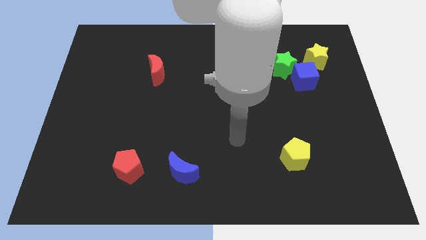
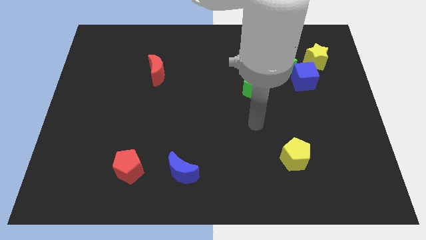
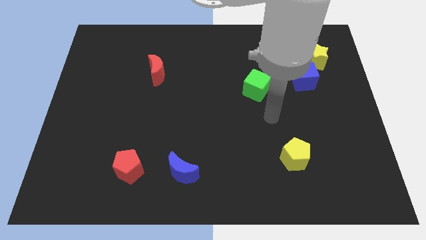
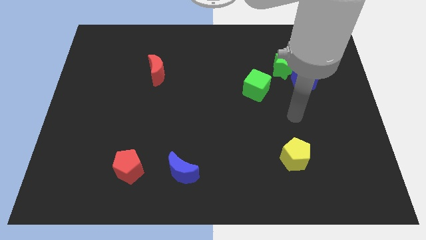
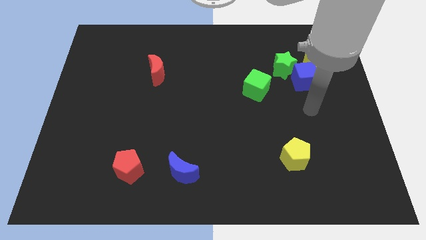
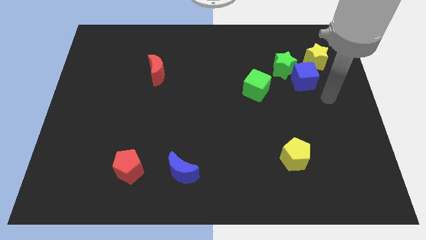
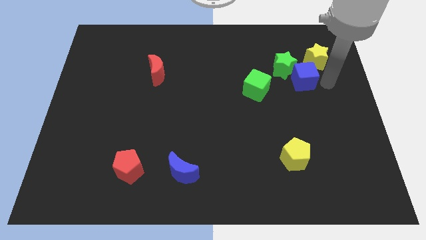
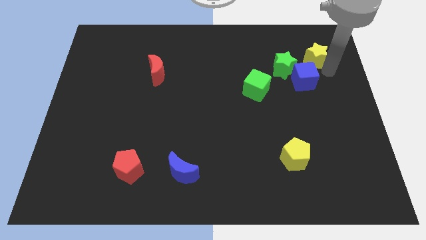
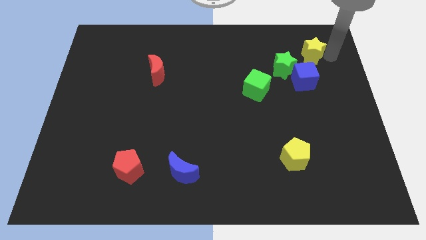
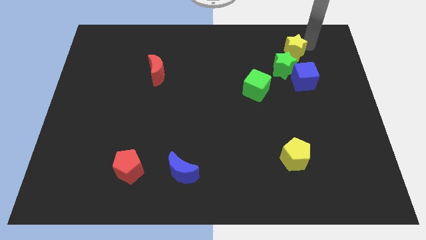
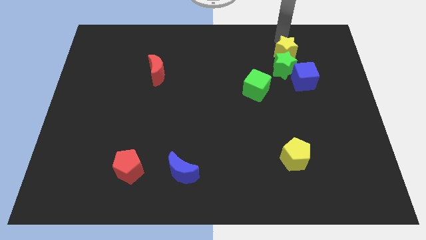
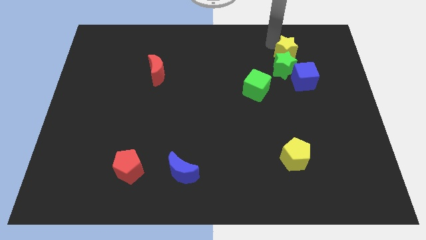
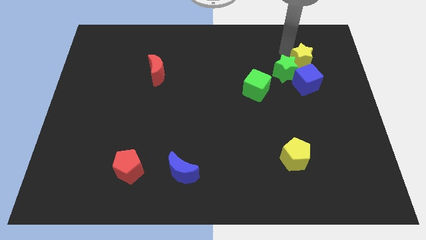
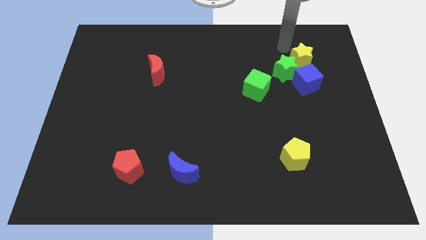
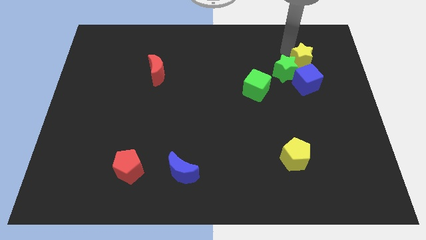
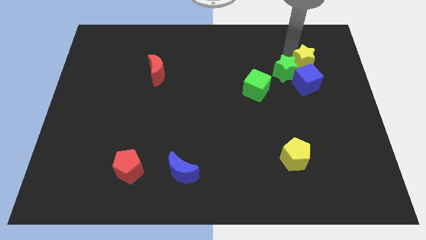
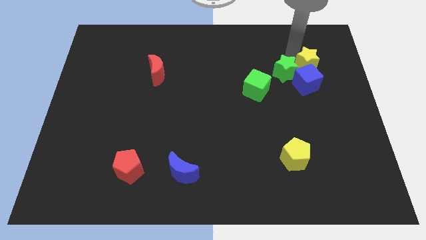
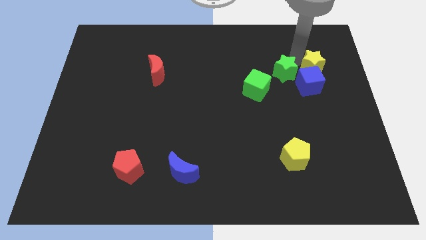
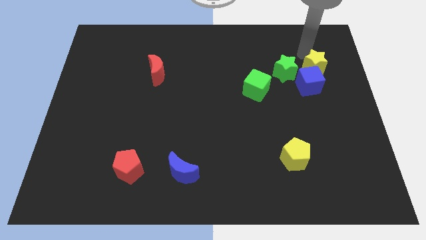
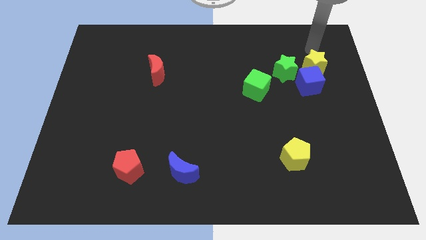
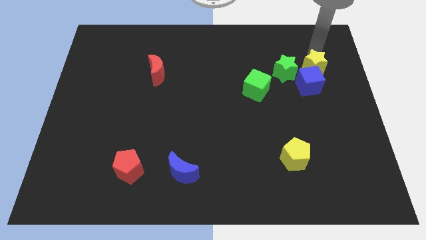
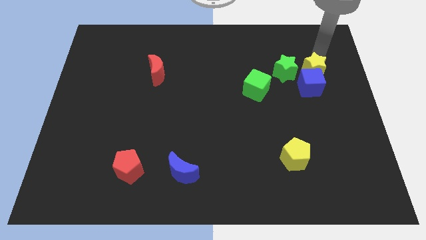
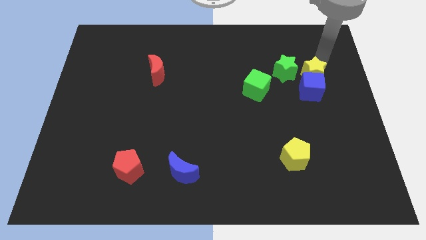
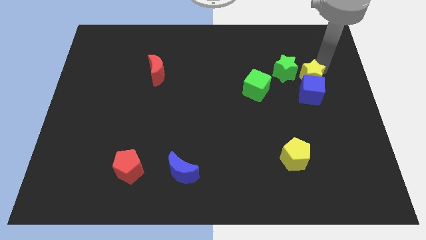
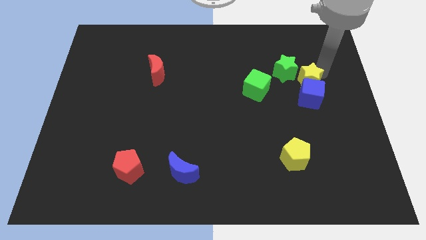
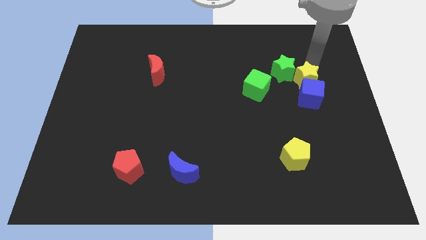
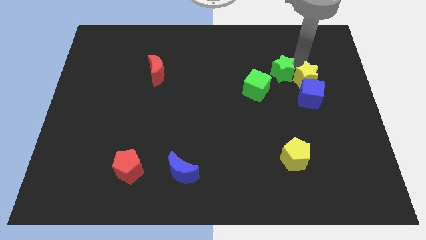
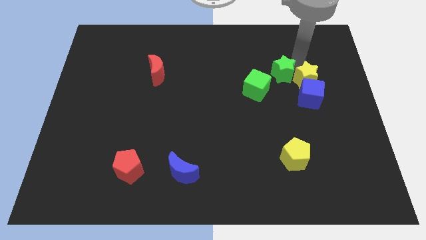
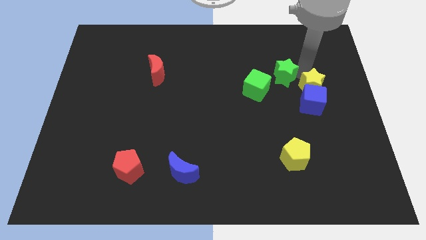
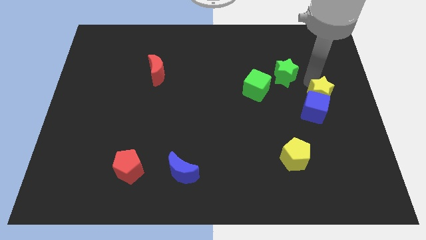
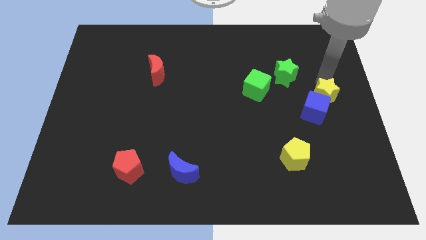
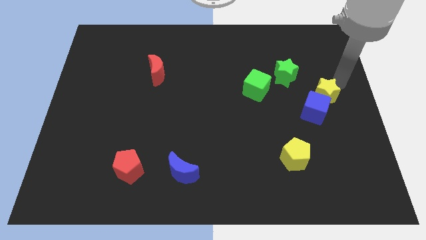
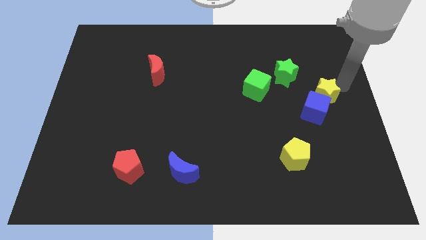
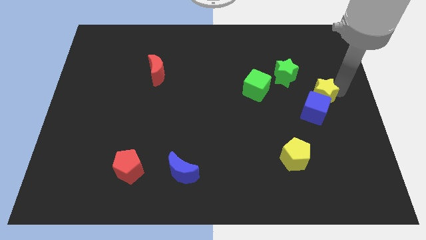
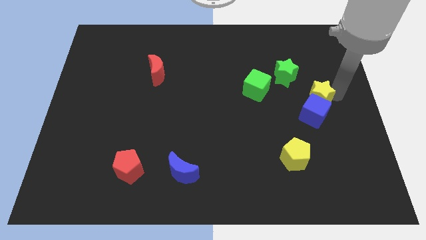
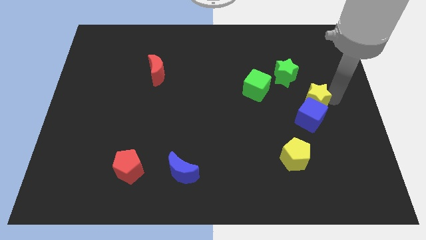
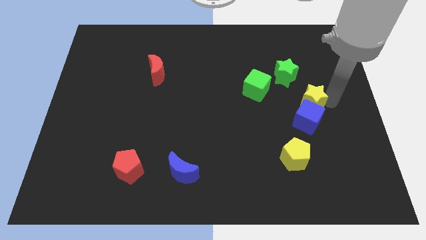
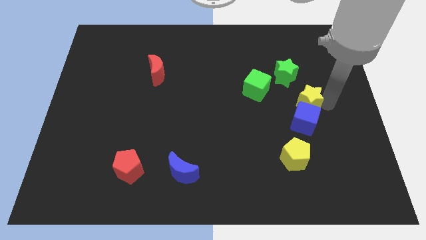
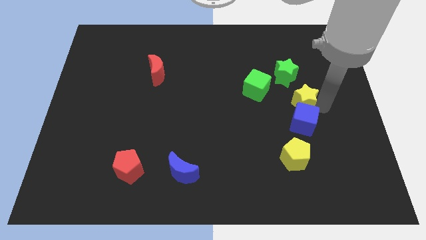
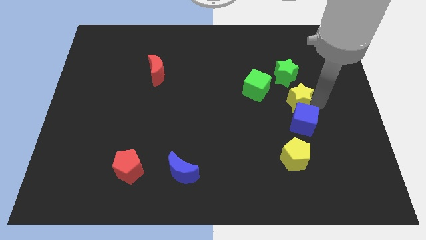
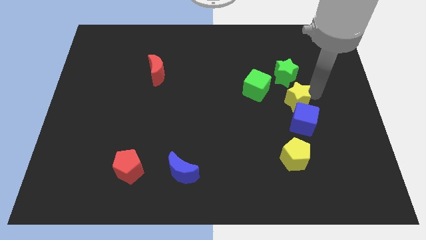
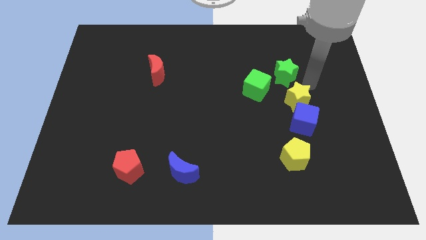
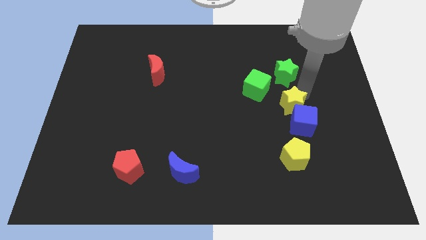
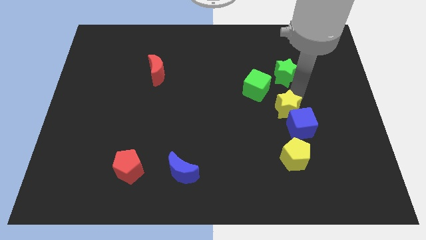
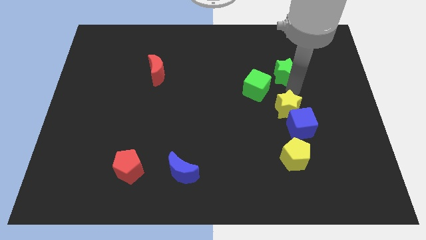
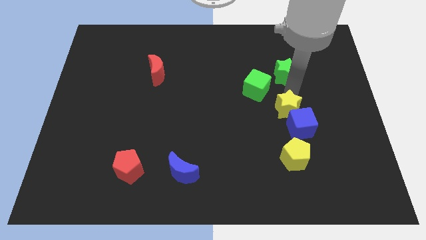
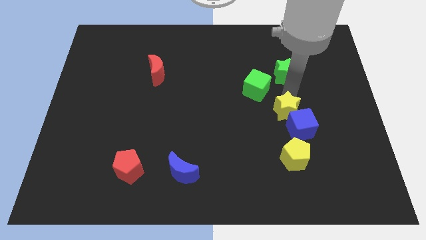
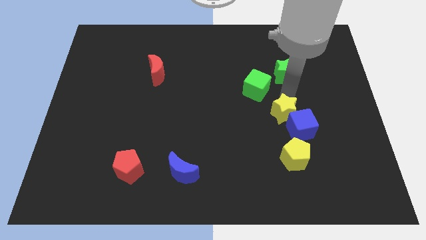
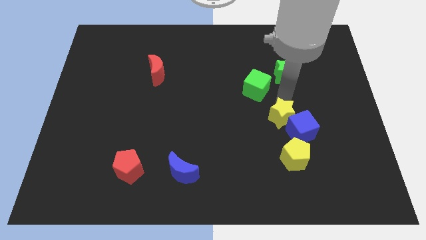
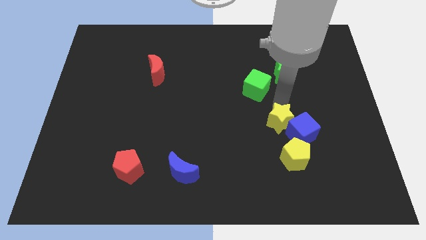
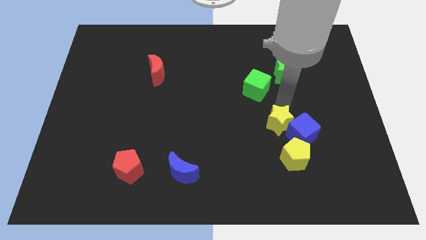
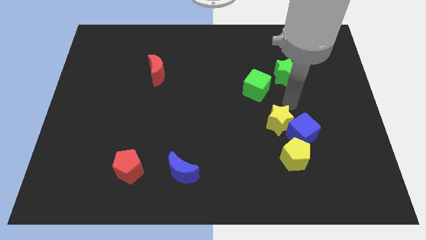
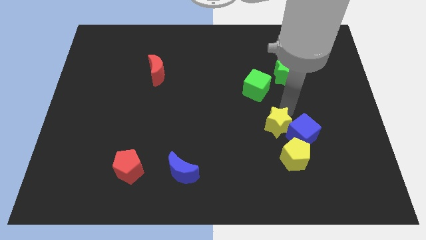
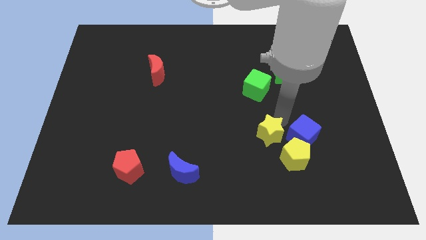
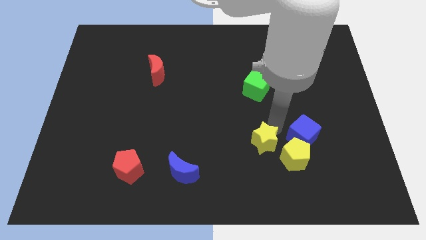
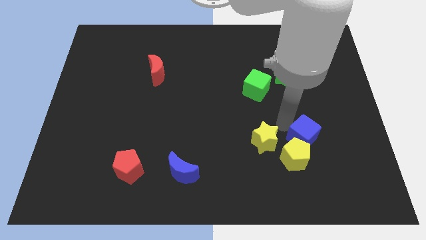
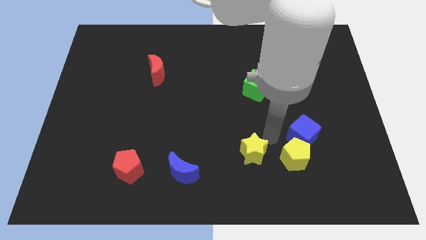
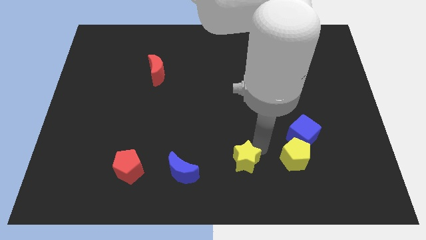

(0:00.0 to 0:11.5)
slide the yellow star to the right of the blue moon

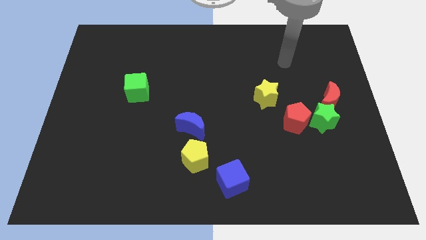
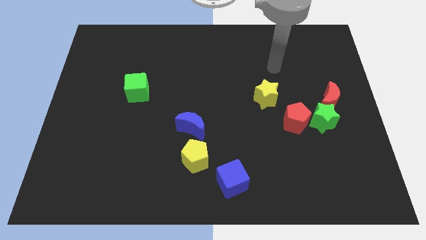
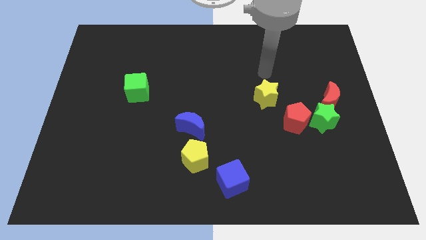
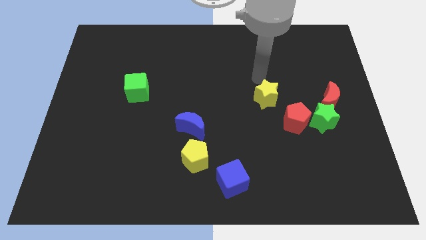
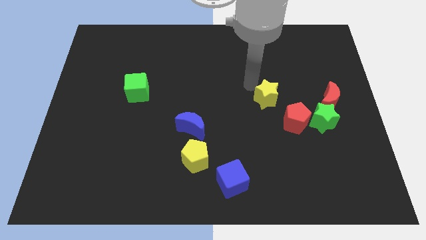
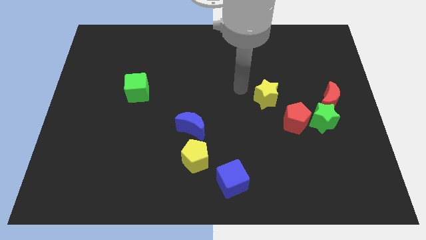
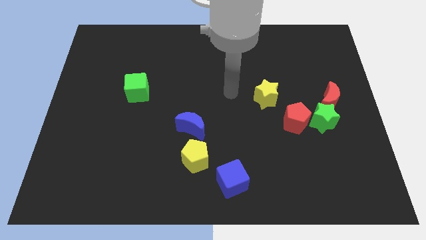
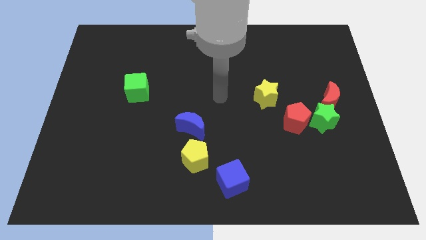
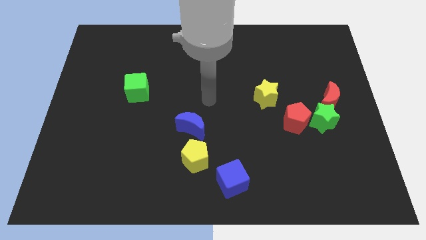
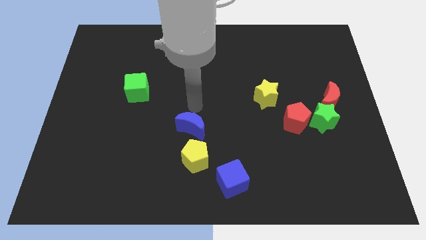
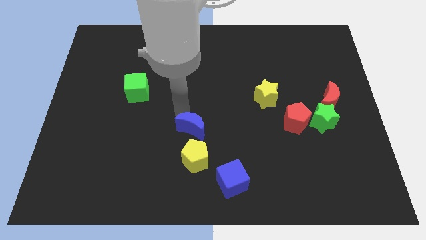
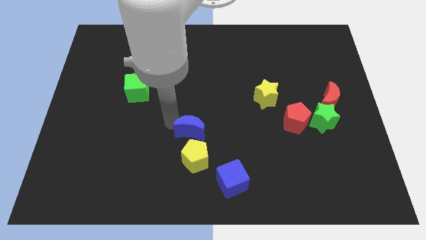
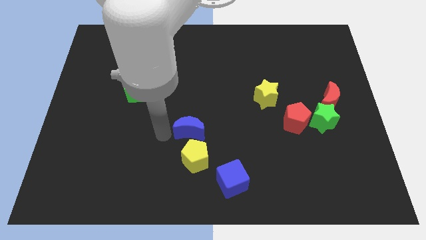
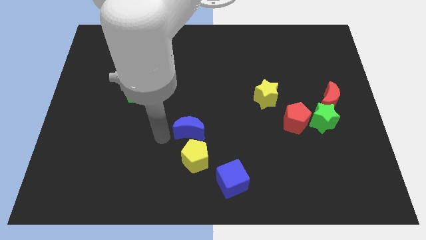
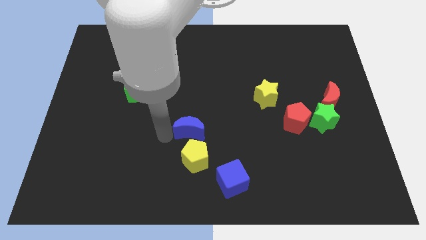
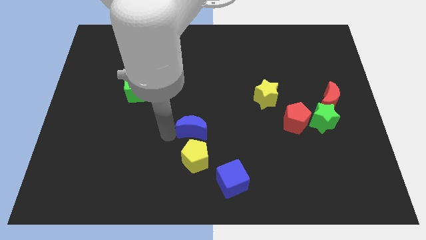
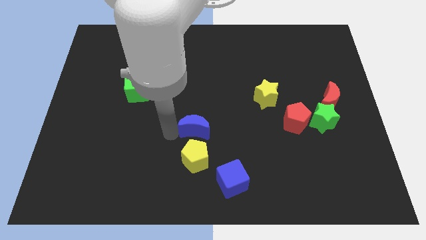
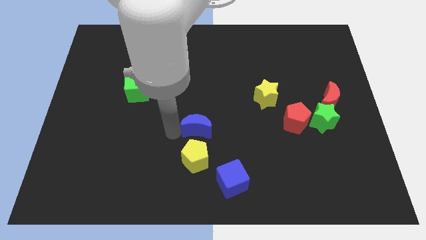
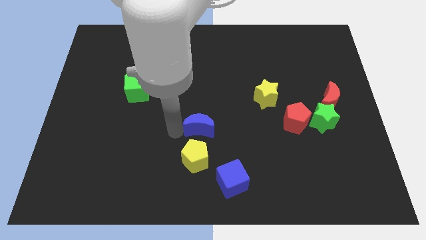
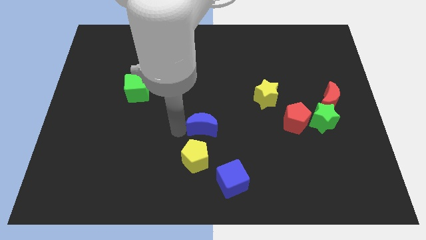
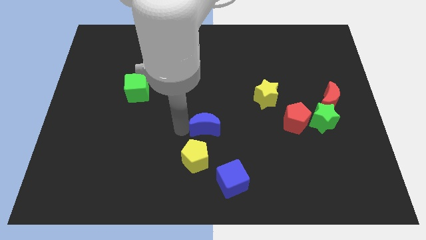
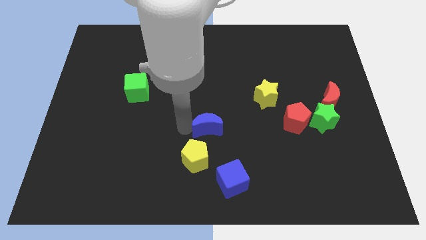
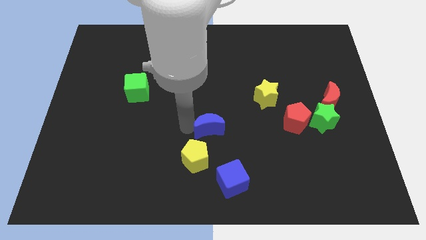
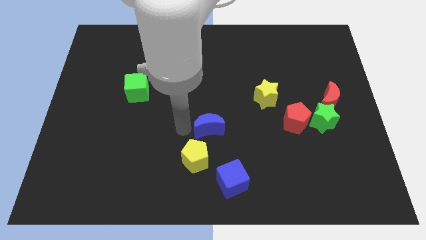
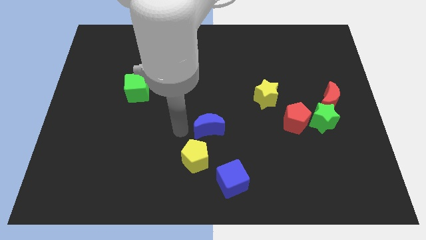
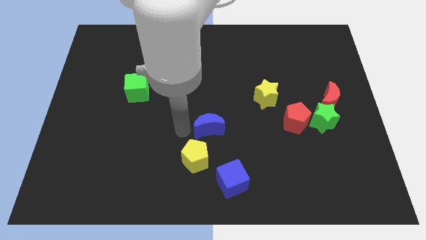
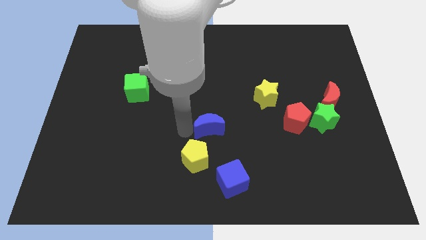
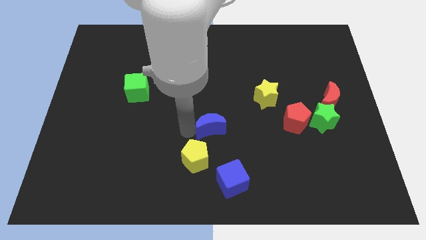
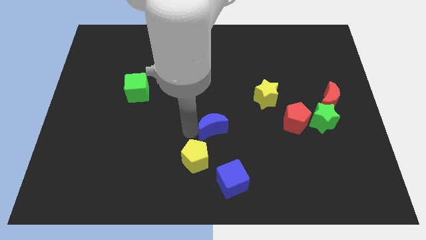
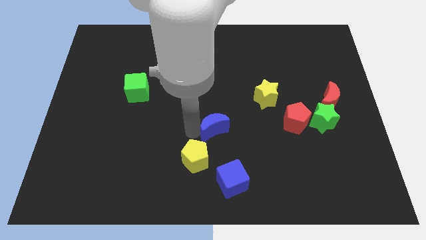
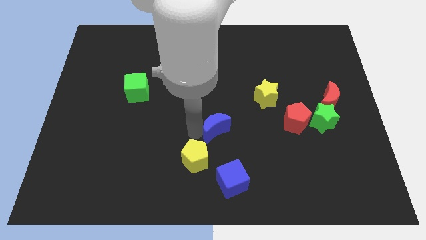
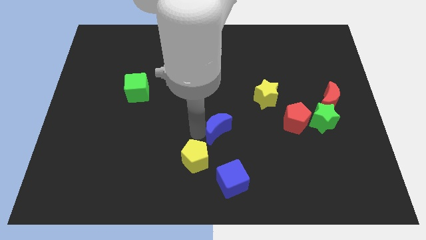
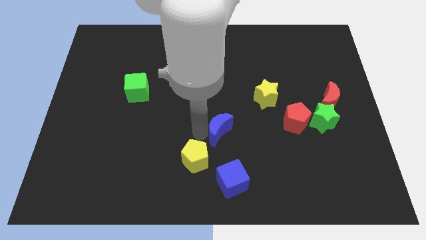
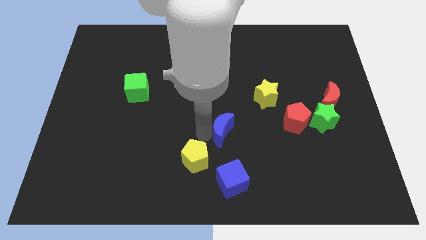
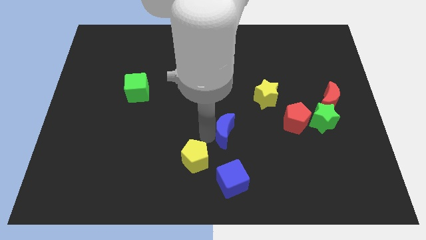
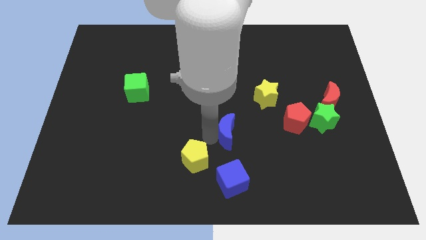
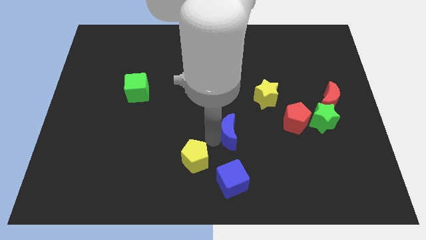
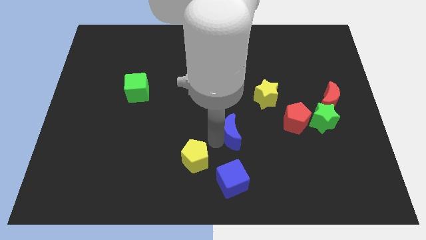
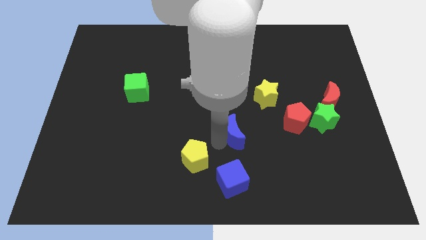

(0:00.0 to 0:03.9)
put the blue moon to the left of the red pentagon
